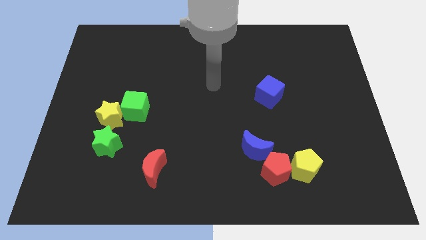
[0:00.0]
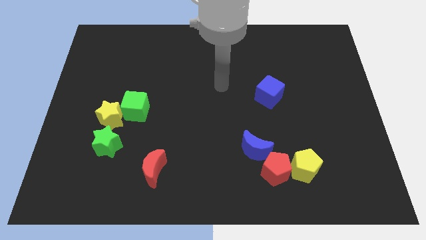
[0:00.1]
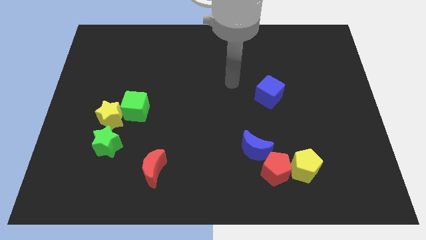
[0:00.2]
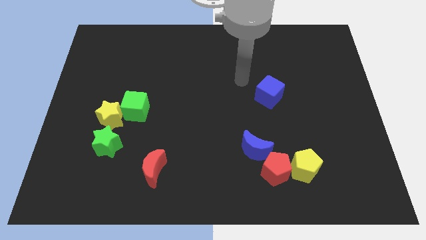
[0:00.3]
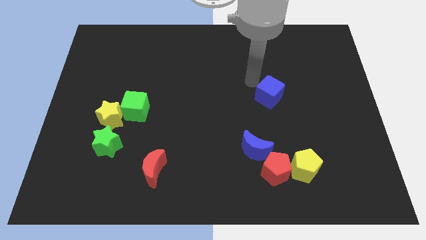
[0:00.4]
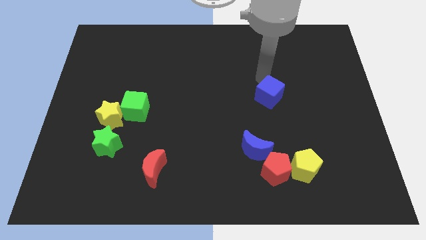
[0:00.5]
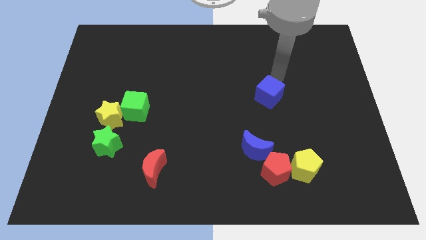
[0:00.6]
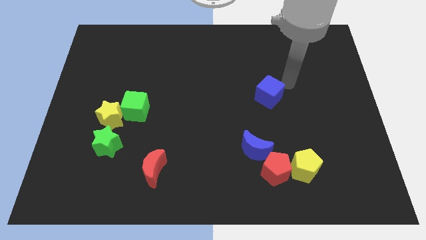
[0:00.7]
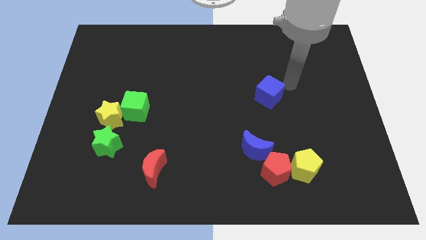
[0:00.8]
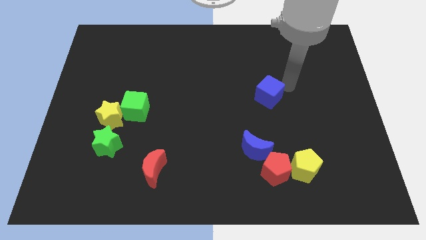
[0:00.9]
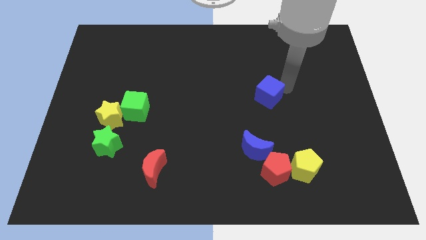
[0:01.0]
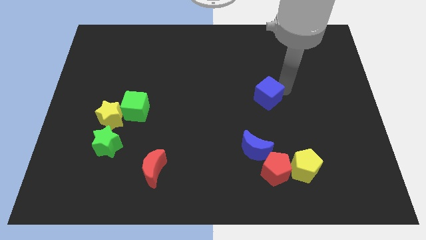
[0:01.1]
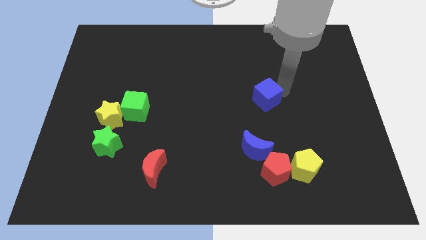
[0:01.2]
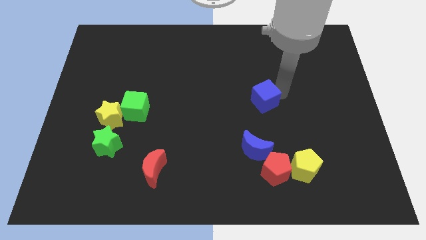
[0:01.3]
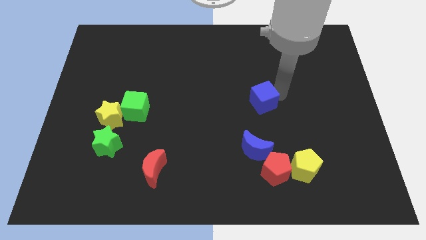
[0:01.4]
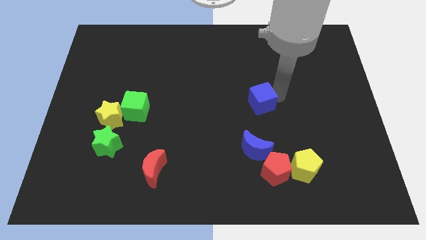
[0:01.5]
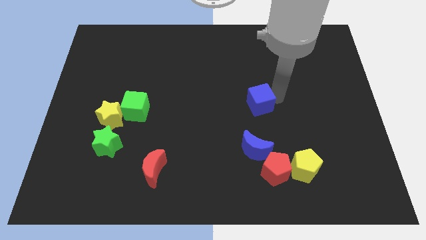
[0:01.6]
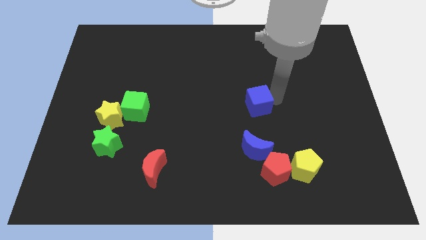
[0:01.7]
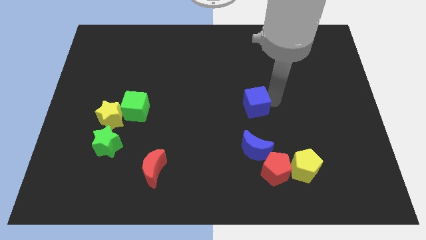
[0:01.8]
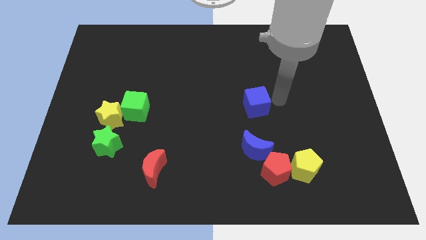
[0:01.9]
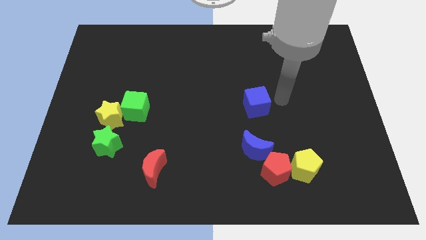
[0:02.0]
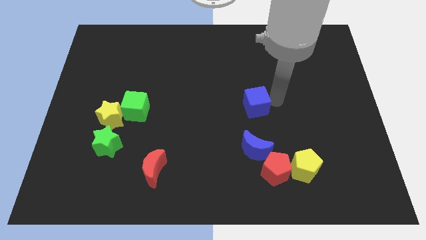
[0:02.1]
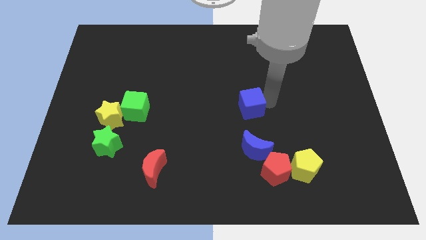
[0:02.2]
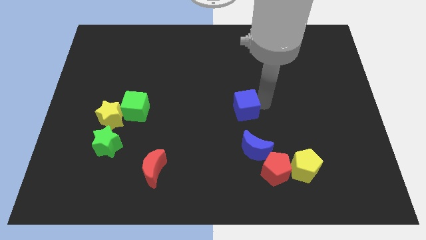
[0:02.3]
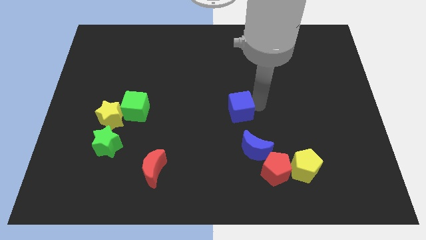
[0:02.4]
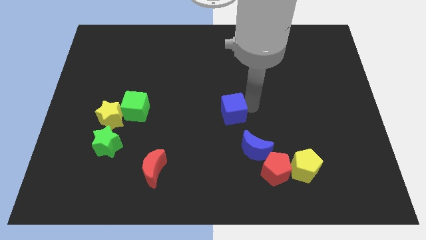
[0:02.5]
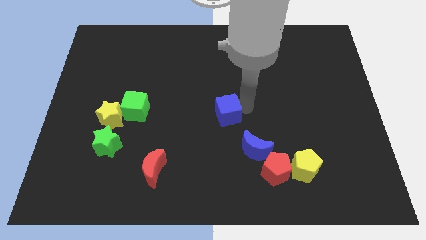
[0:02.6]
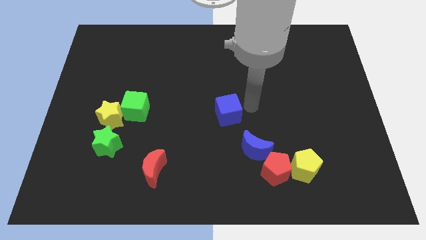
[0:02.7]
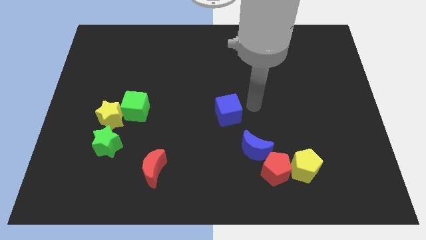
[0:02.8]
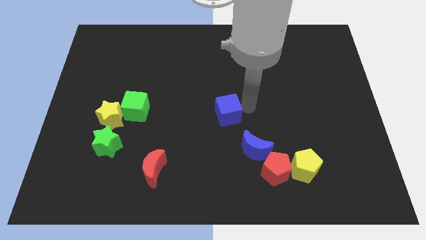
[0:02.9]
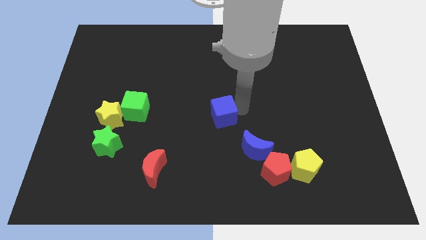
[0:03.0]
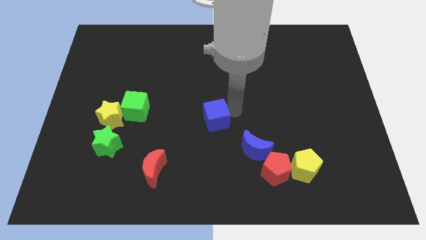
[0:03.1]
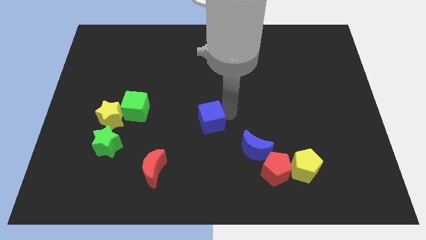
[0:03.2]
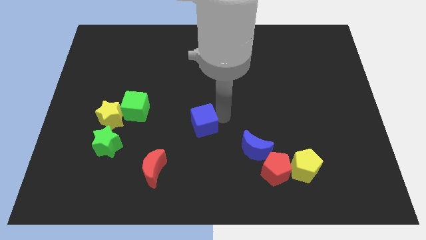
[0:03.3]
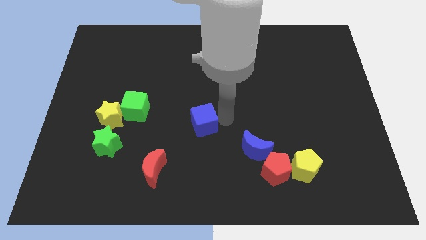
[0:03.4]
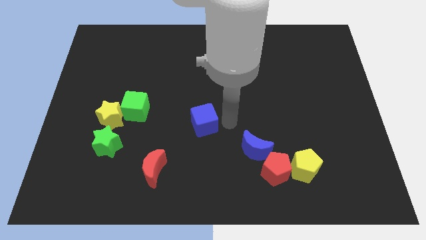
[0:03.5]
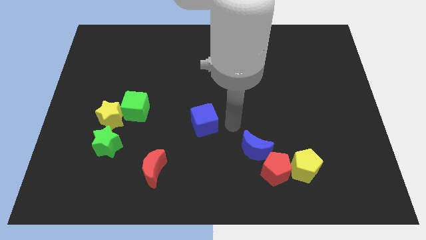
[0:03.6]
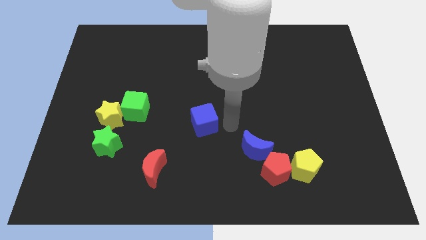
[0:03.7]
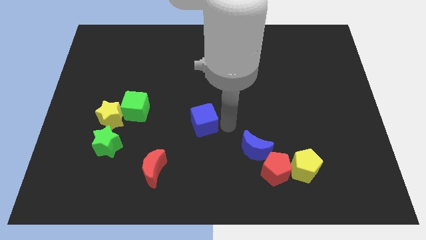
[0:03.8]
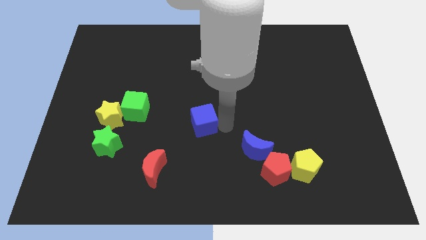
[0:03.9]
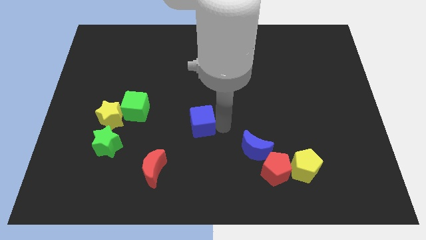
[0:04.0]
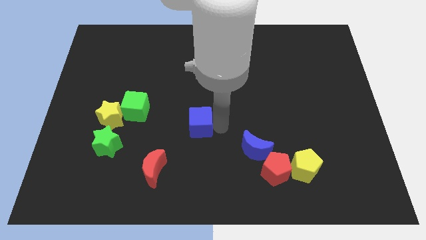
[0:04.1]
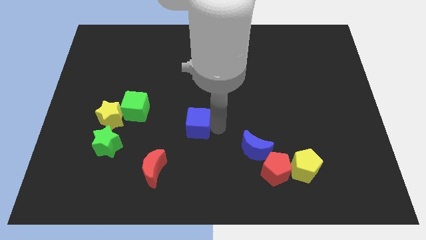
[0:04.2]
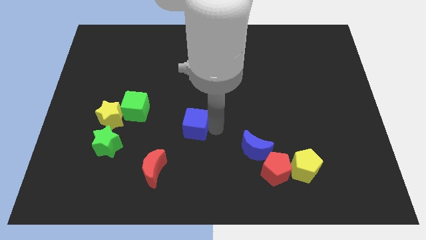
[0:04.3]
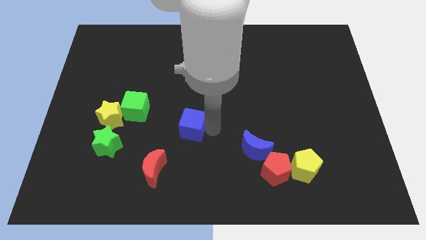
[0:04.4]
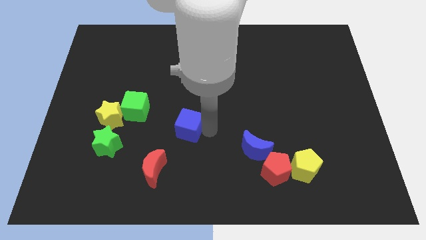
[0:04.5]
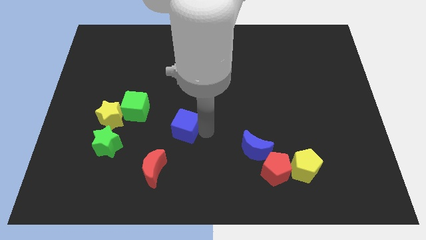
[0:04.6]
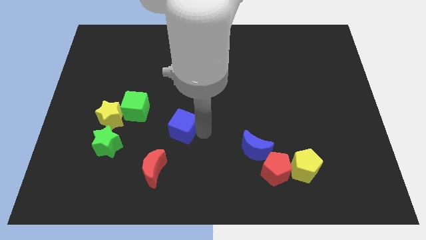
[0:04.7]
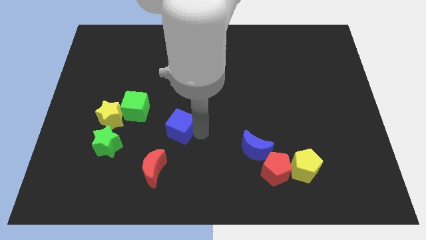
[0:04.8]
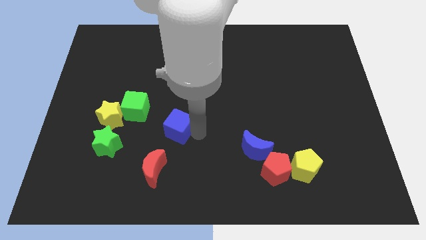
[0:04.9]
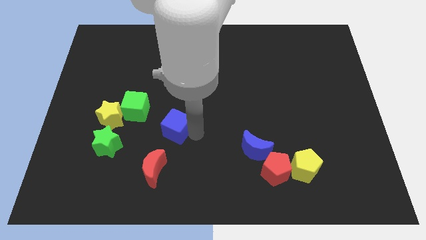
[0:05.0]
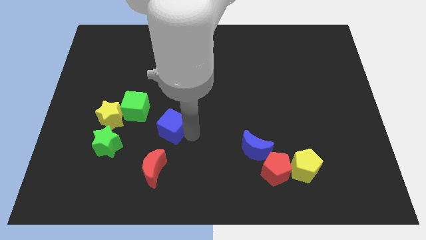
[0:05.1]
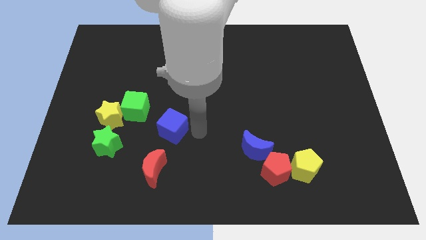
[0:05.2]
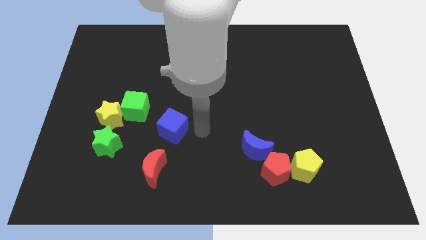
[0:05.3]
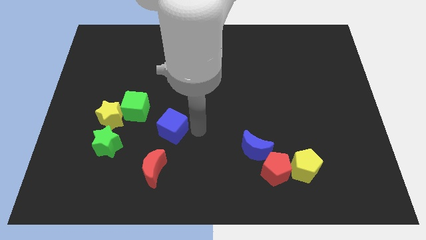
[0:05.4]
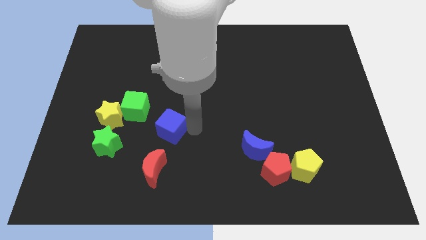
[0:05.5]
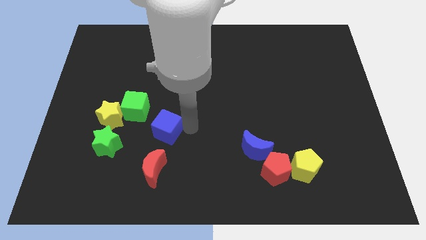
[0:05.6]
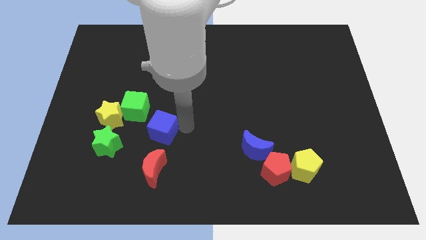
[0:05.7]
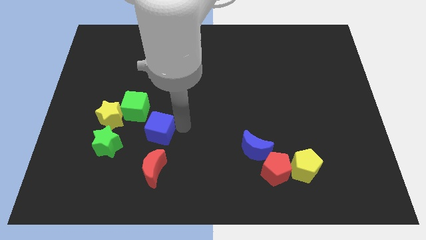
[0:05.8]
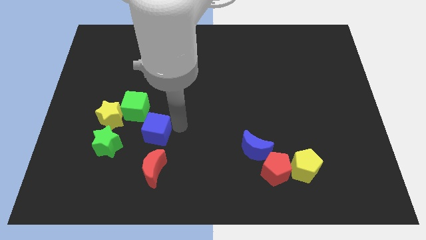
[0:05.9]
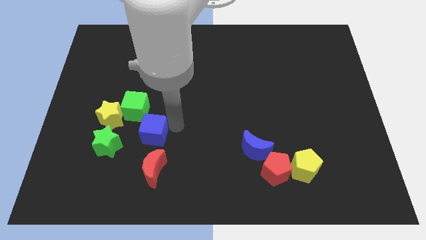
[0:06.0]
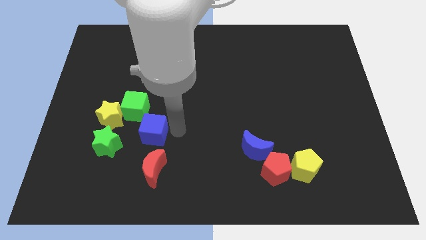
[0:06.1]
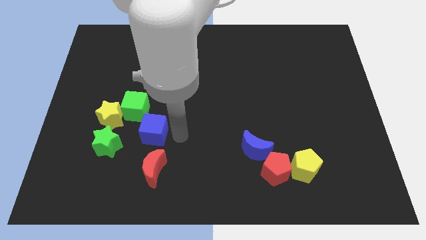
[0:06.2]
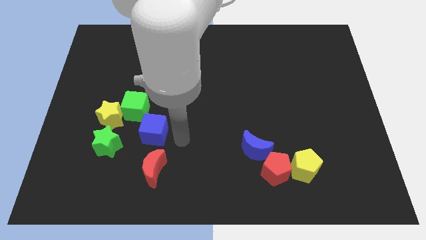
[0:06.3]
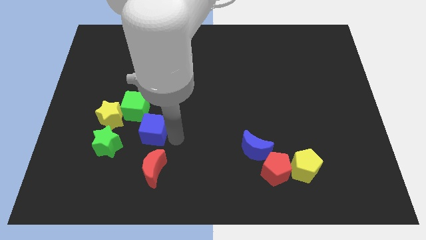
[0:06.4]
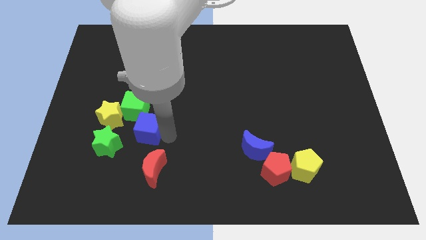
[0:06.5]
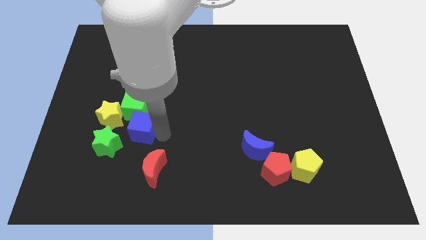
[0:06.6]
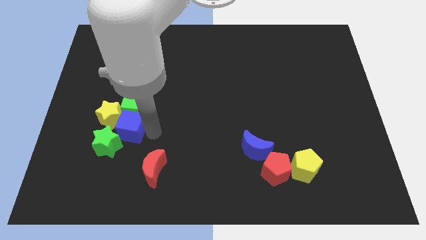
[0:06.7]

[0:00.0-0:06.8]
push the blue cube to the yellow star
